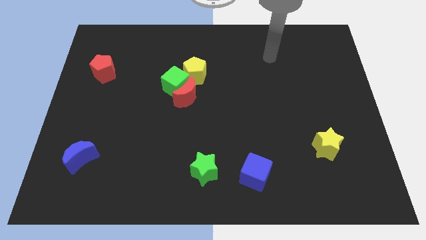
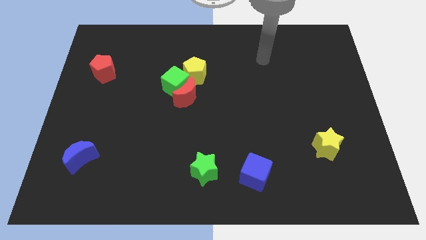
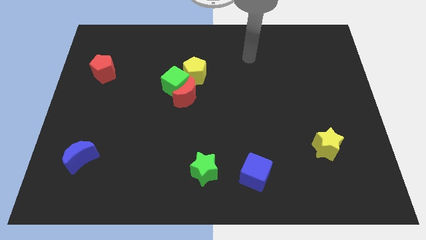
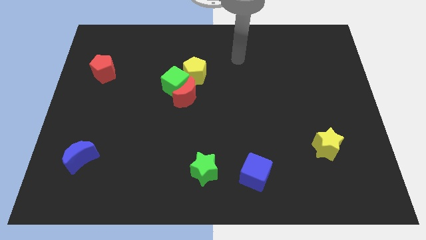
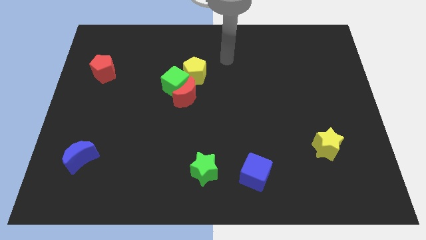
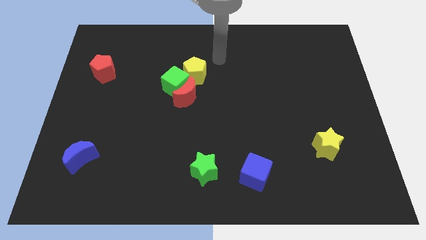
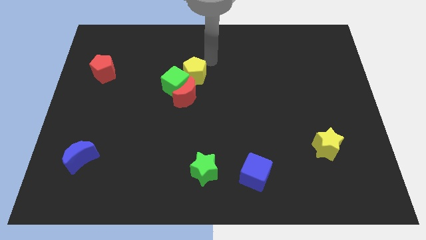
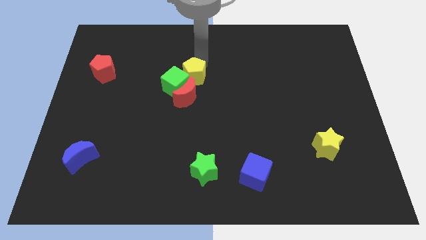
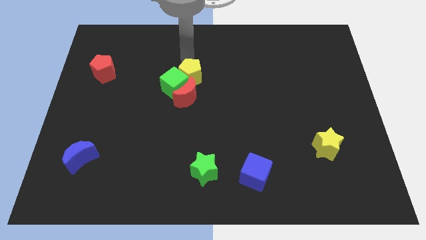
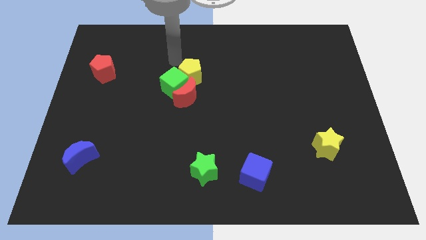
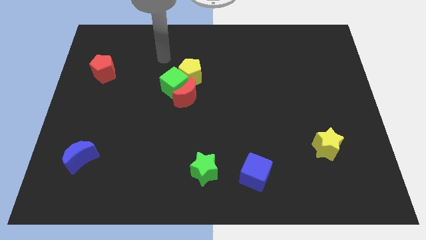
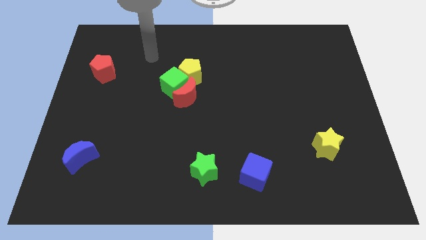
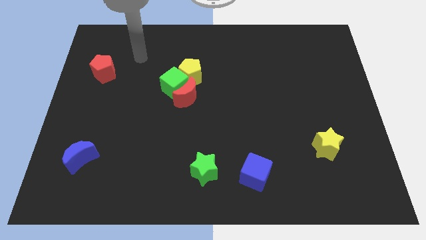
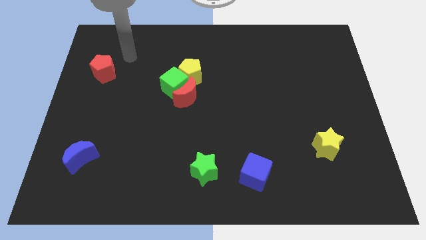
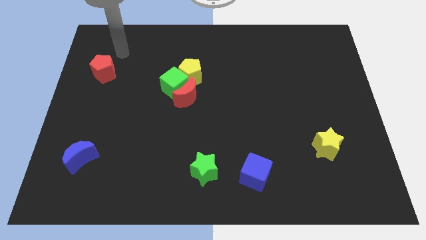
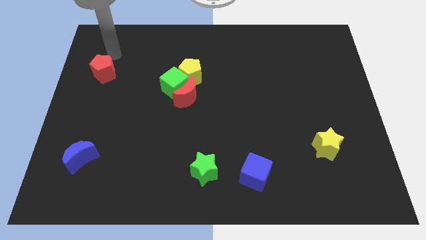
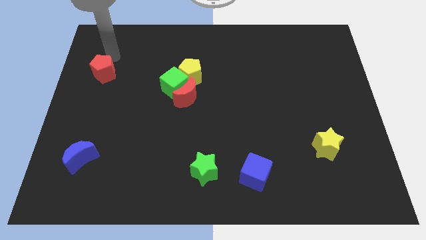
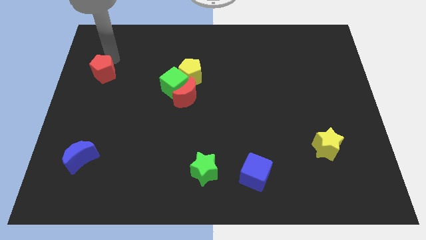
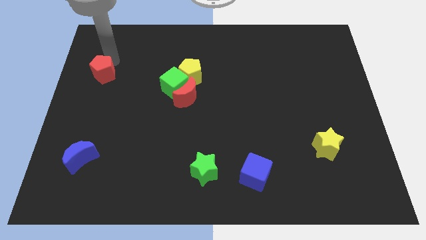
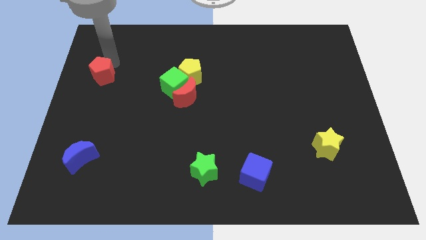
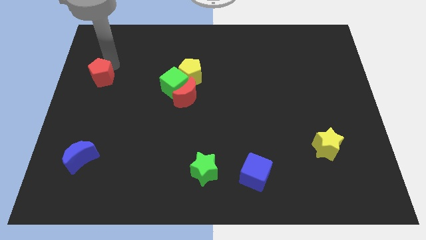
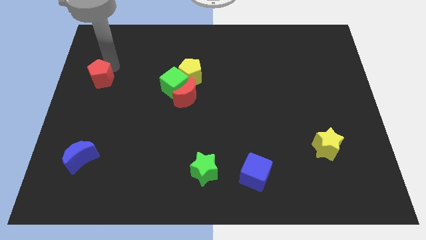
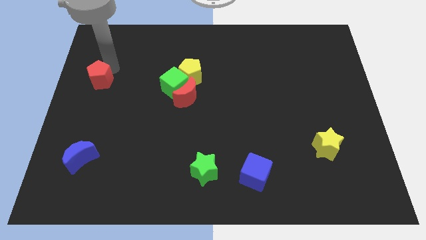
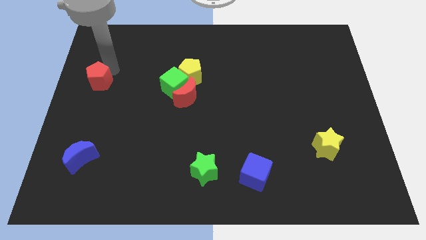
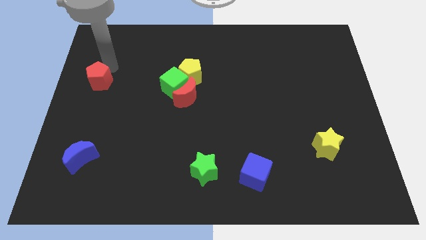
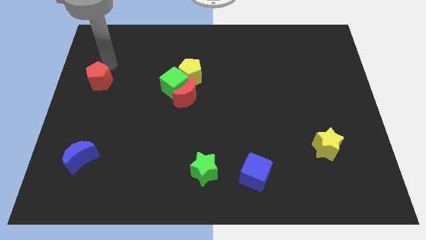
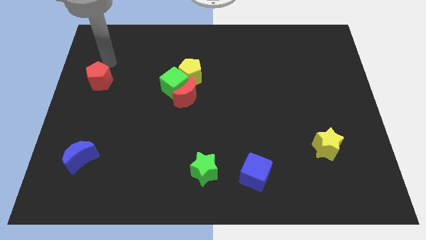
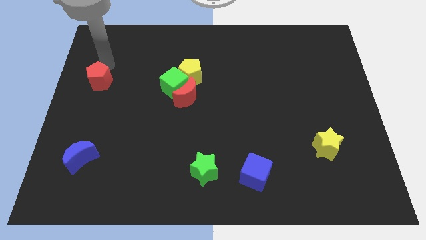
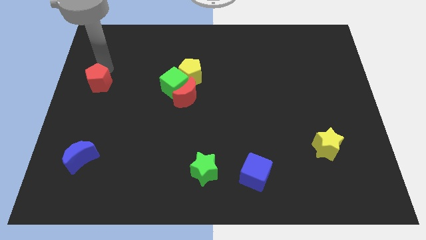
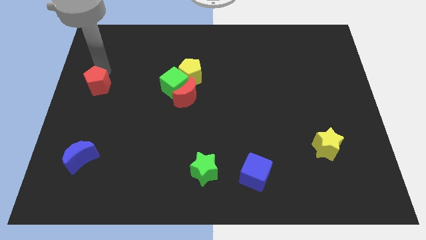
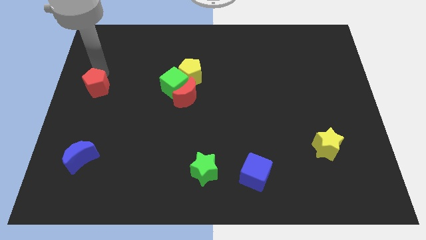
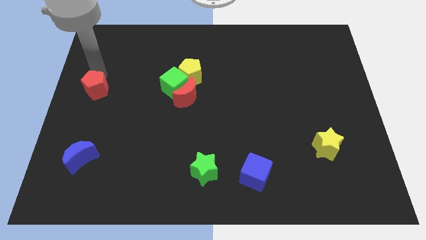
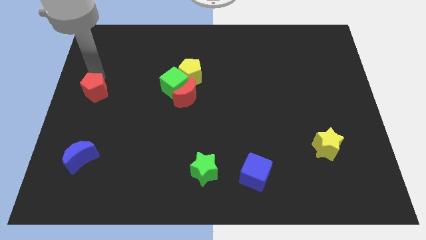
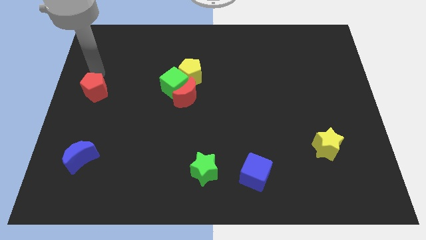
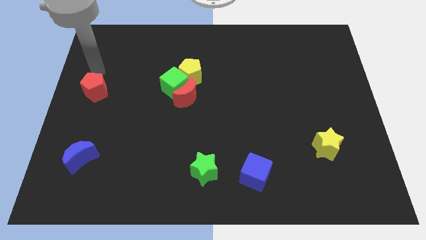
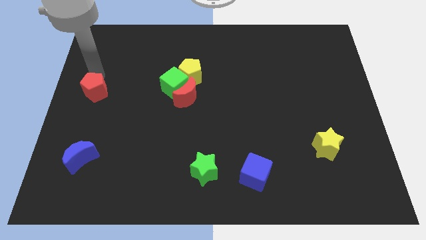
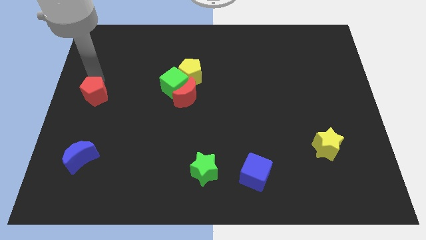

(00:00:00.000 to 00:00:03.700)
slide the red pentagon downwards slightly

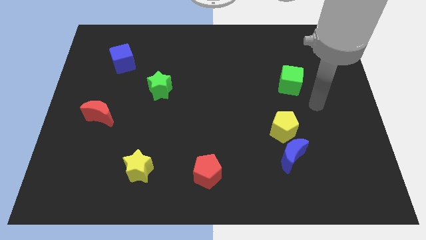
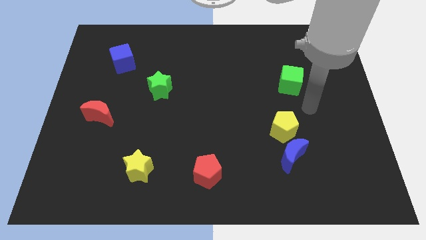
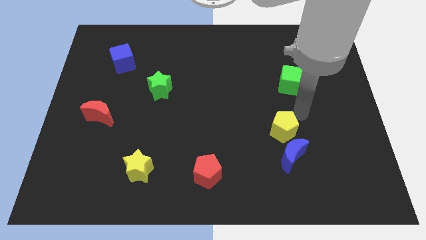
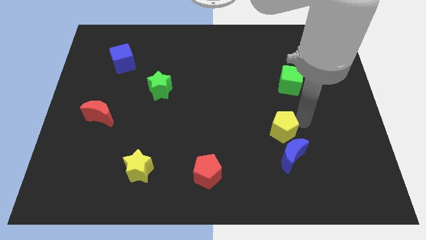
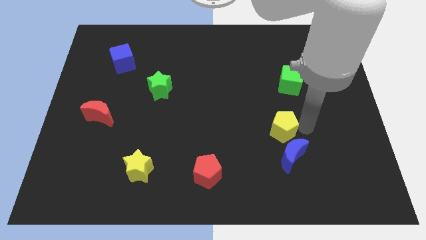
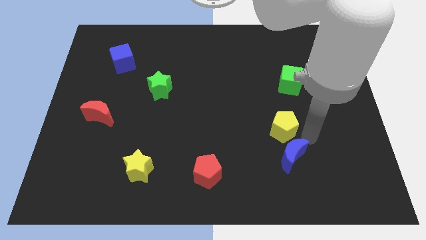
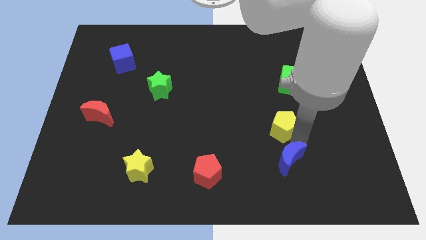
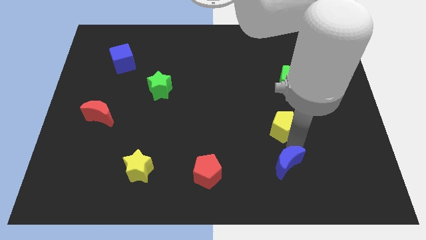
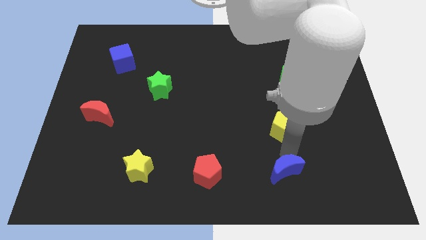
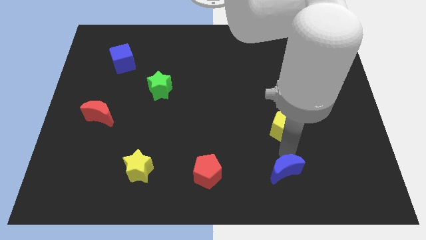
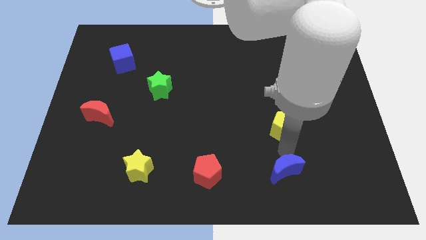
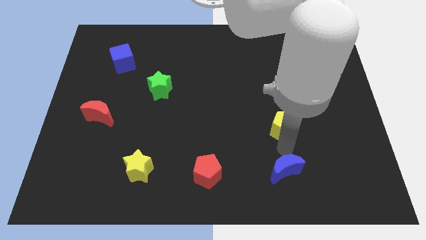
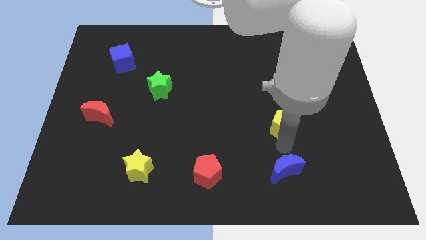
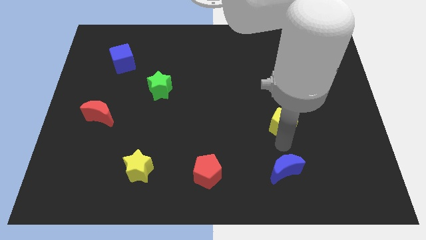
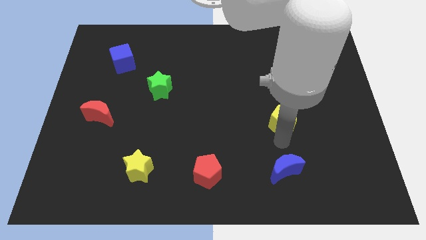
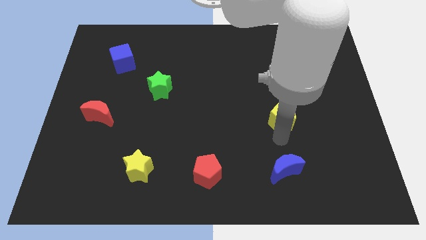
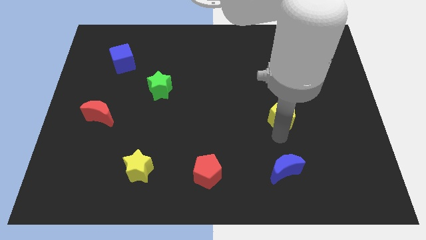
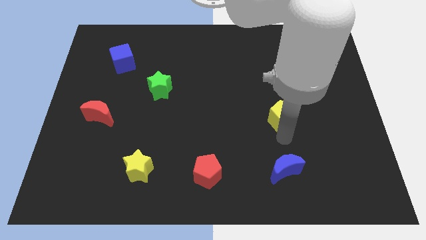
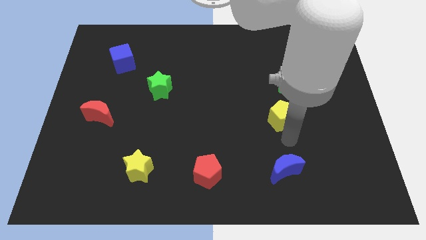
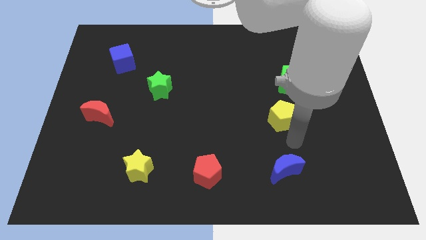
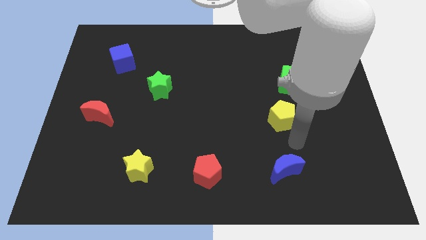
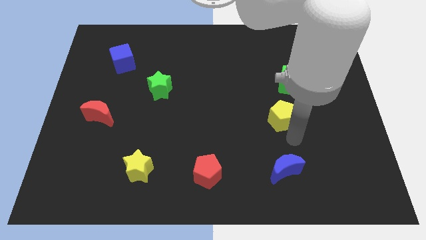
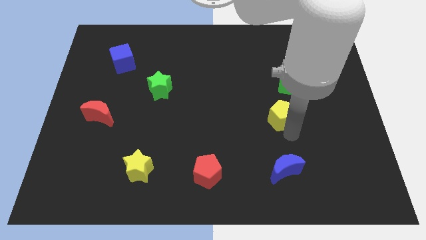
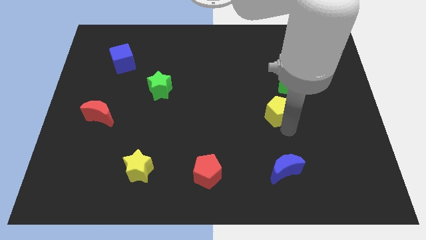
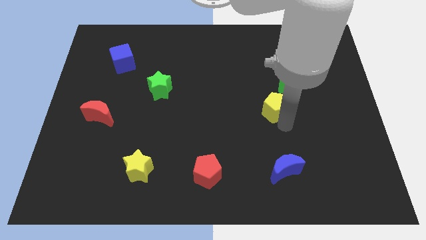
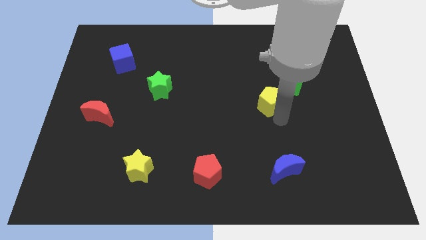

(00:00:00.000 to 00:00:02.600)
slightly move the yellow pentagon upwards

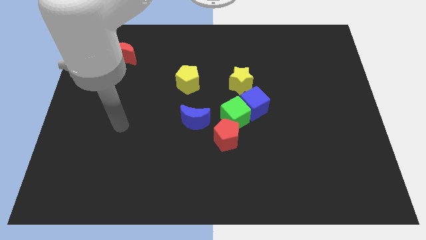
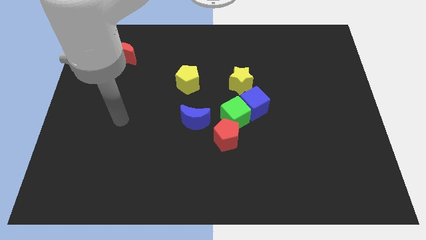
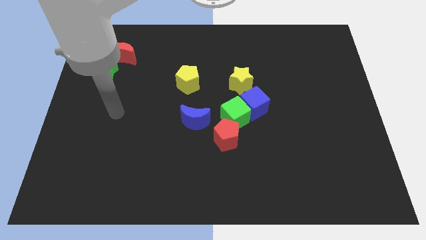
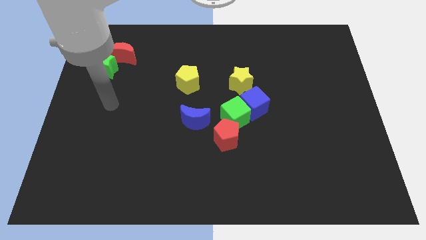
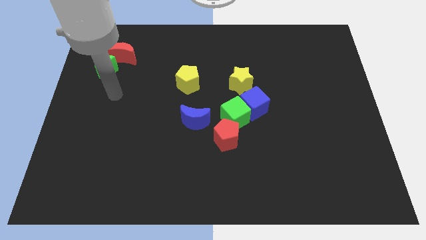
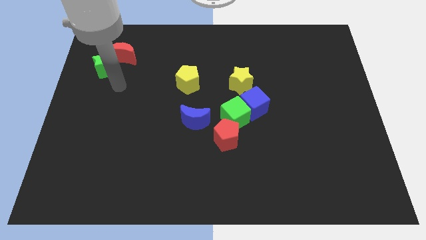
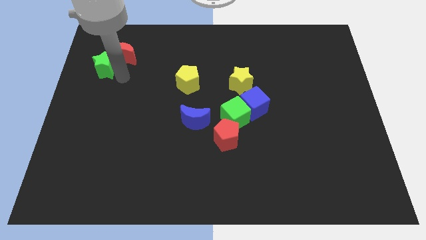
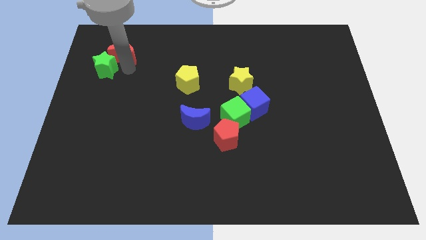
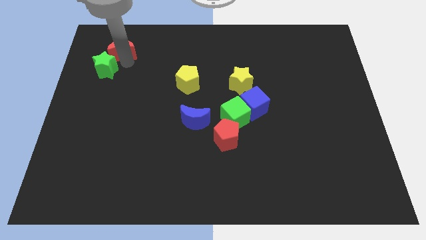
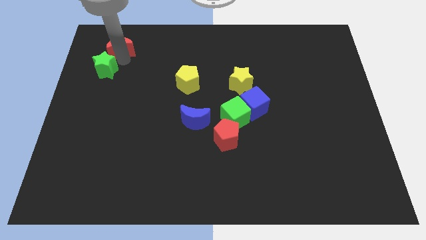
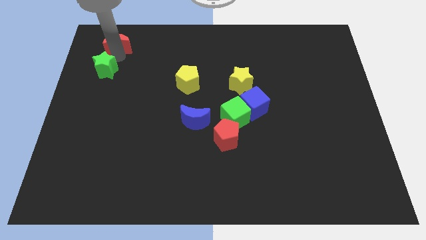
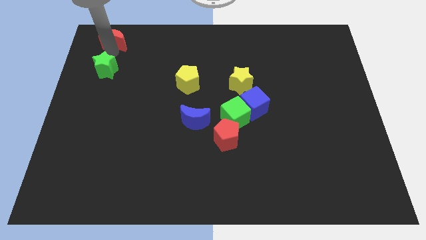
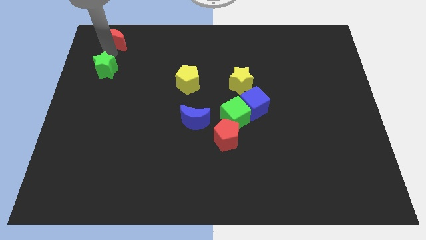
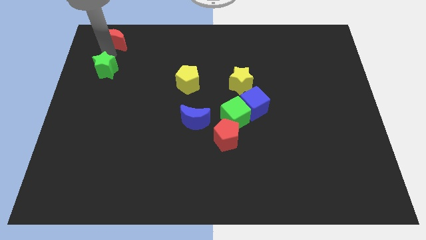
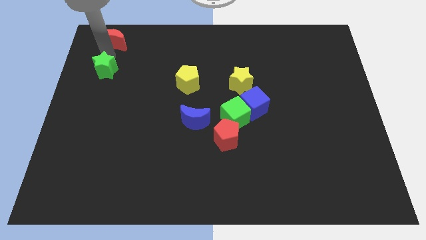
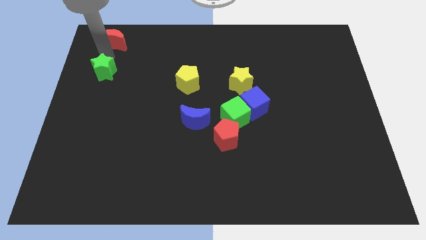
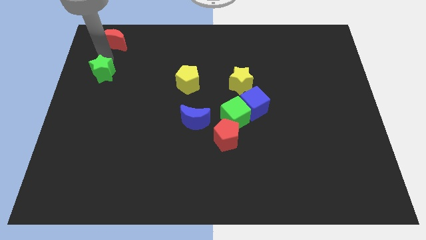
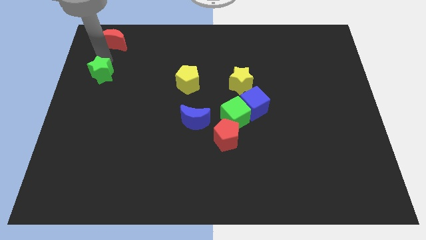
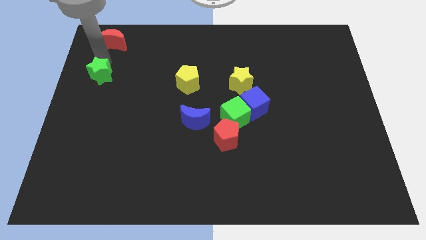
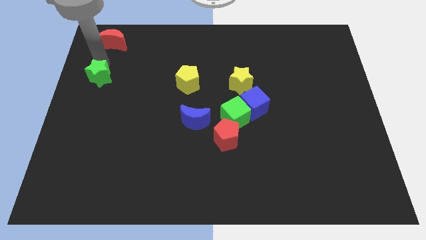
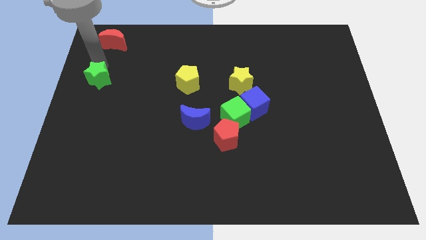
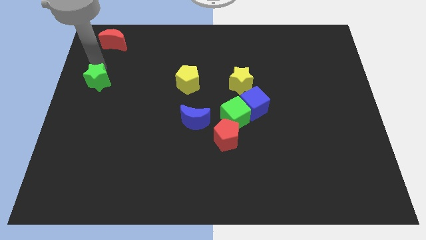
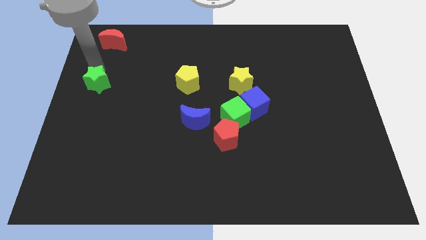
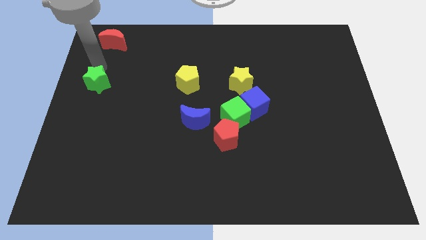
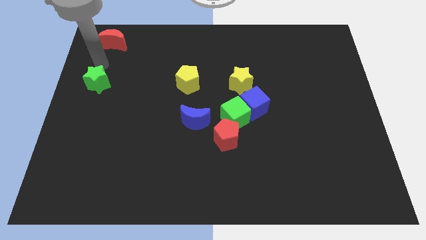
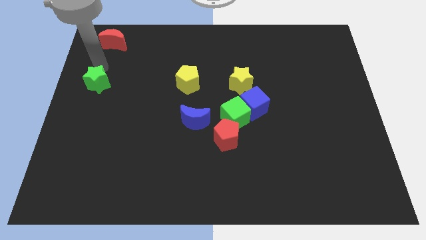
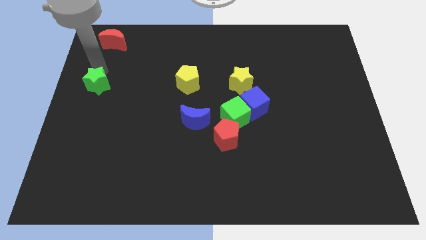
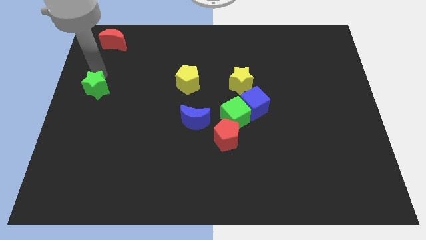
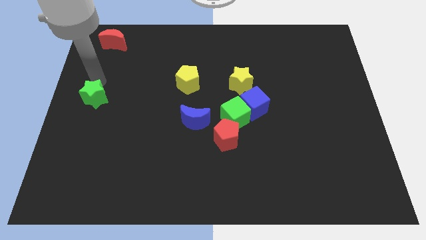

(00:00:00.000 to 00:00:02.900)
slide the green star down somewhat
